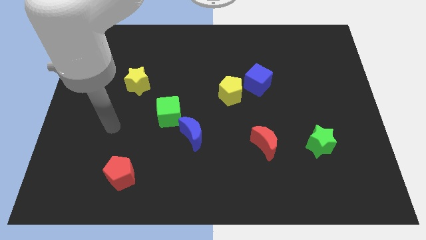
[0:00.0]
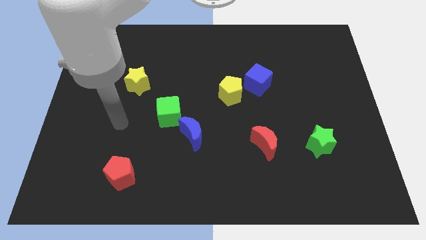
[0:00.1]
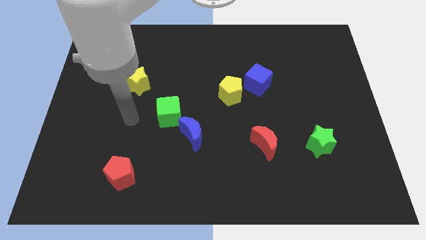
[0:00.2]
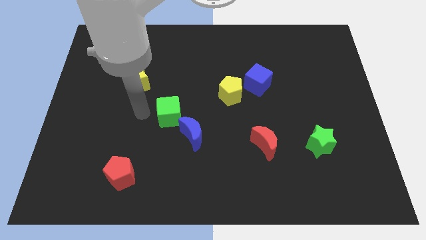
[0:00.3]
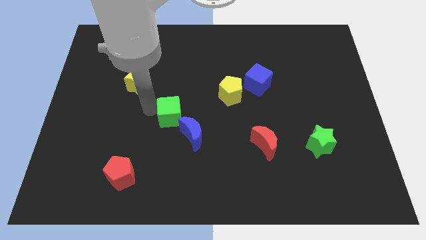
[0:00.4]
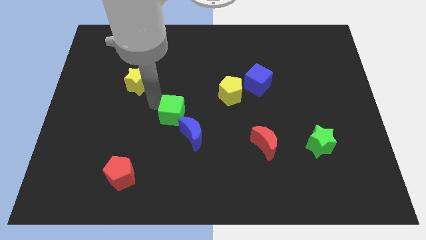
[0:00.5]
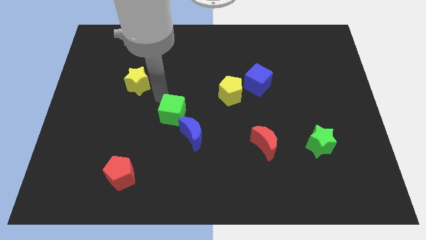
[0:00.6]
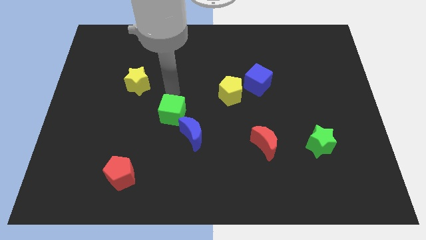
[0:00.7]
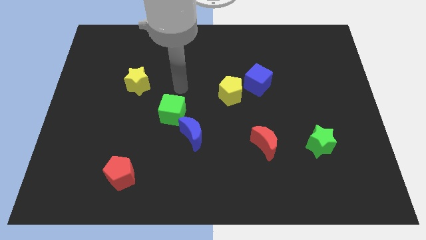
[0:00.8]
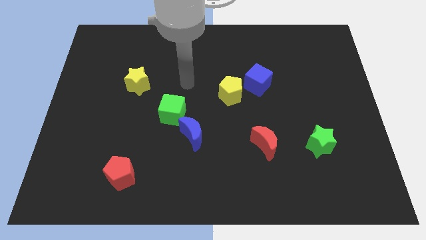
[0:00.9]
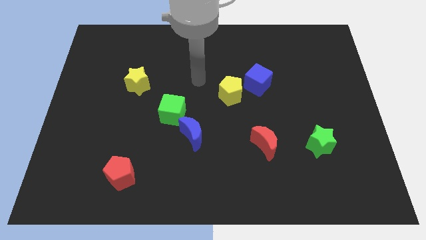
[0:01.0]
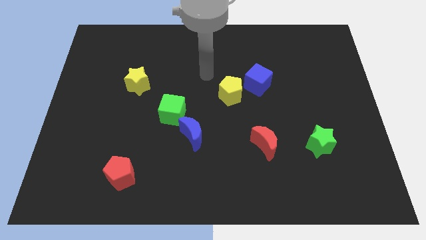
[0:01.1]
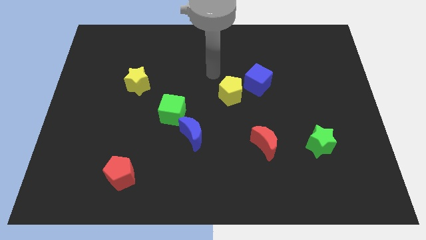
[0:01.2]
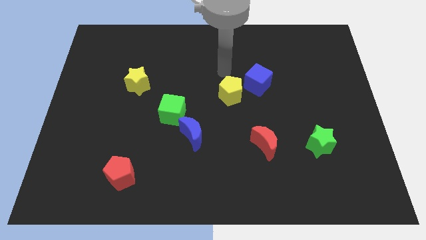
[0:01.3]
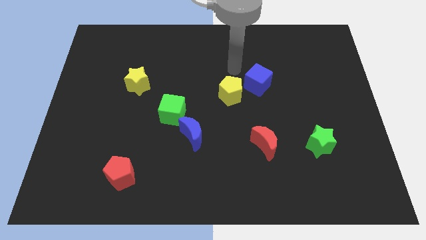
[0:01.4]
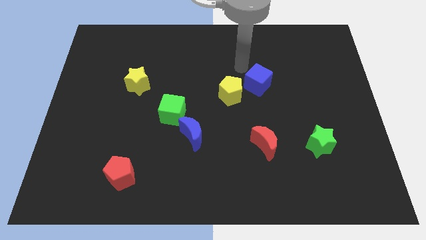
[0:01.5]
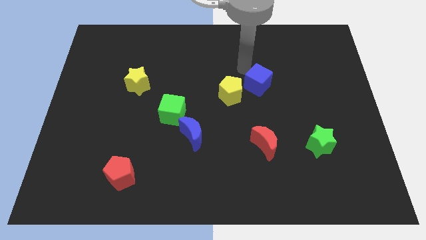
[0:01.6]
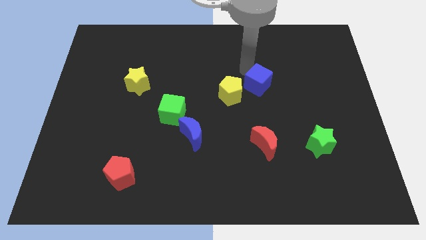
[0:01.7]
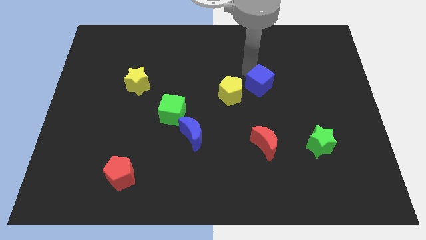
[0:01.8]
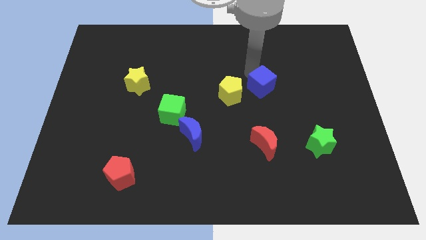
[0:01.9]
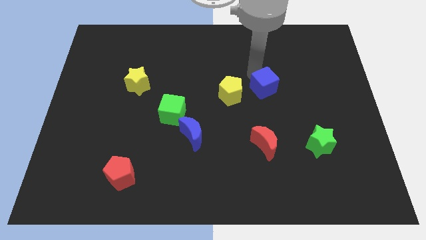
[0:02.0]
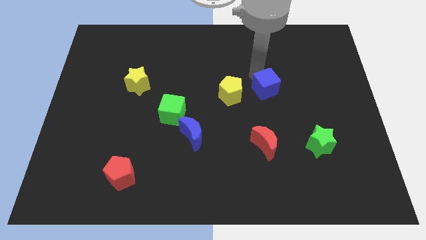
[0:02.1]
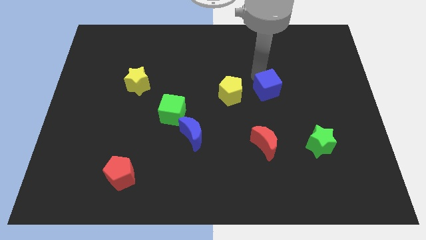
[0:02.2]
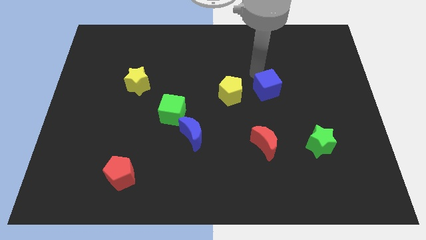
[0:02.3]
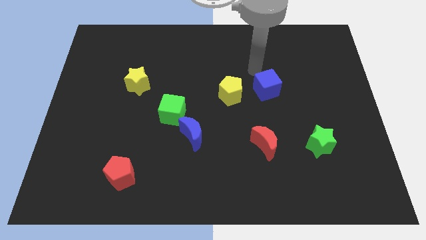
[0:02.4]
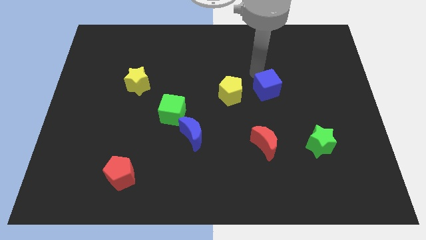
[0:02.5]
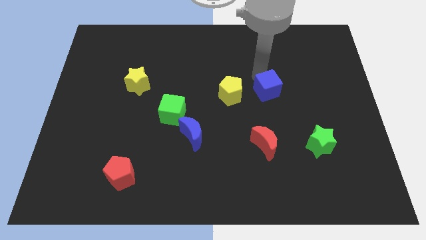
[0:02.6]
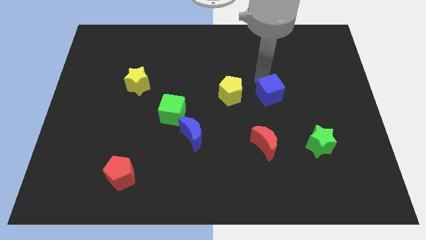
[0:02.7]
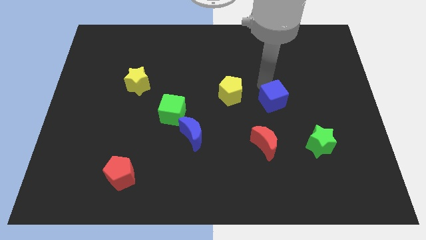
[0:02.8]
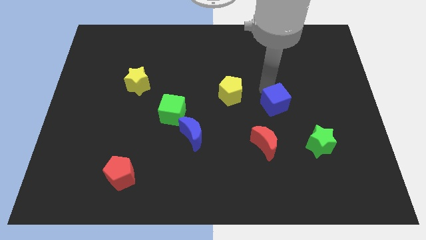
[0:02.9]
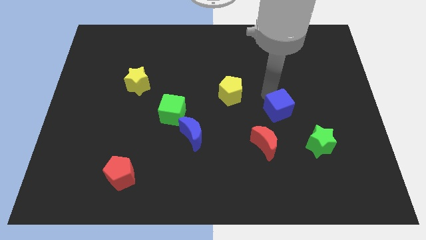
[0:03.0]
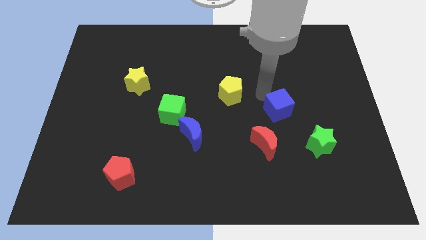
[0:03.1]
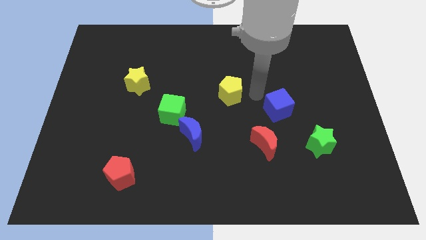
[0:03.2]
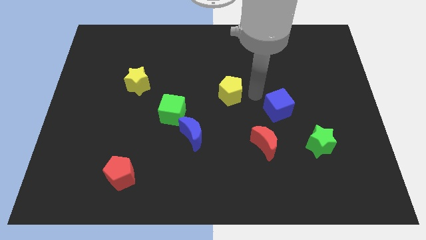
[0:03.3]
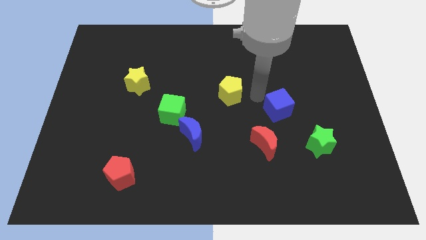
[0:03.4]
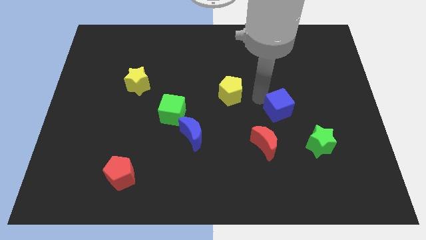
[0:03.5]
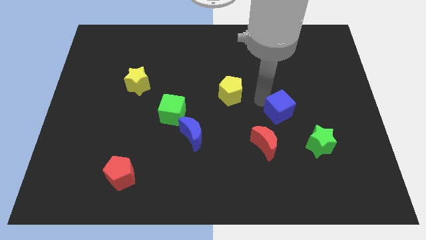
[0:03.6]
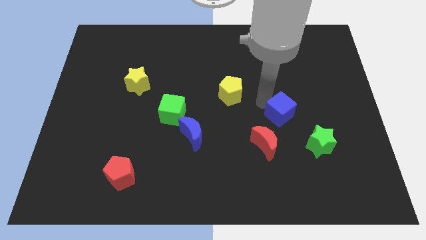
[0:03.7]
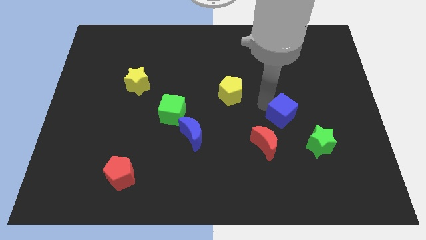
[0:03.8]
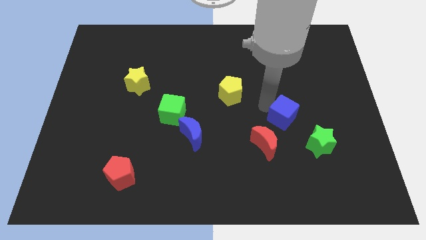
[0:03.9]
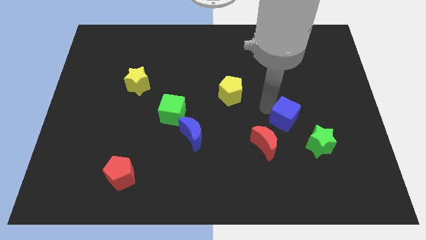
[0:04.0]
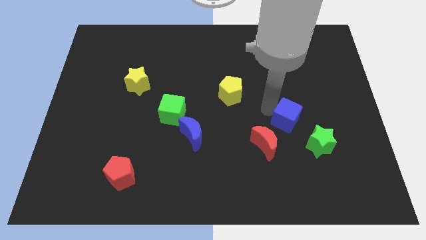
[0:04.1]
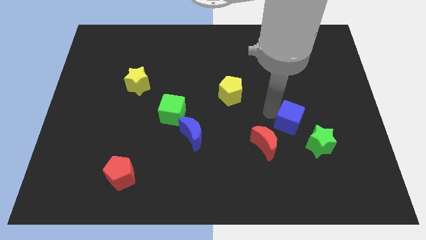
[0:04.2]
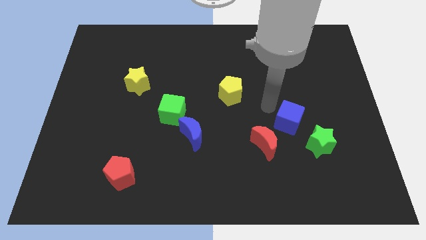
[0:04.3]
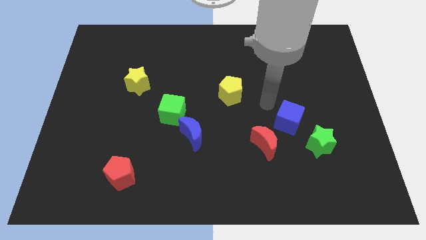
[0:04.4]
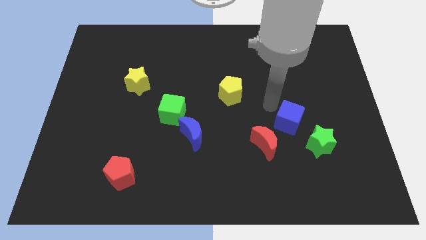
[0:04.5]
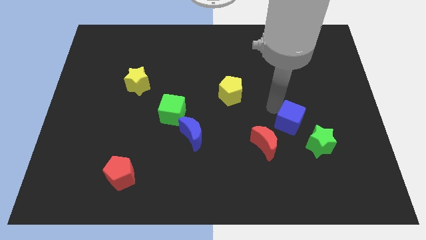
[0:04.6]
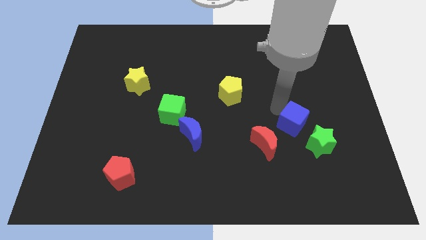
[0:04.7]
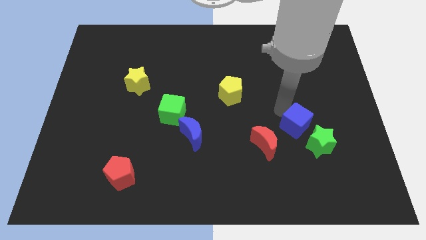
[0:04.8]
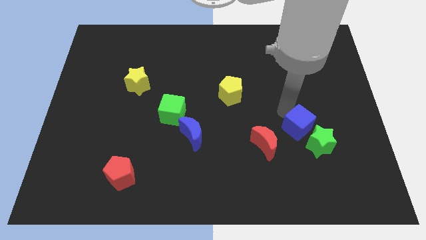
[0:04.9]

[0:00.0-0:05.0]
slide the blue cube close to the green star

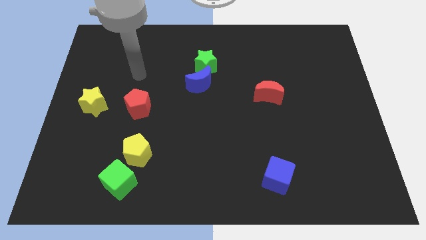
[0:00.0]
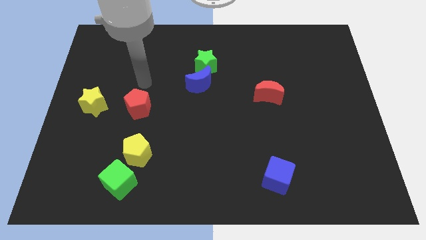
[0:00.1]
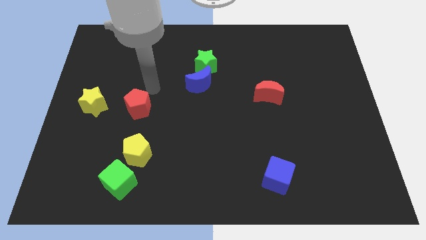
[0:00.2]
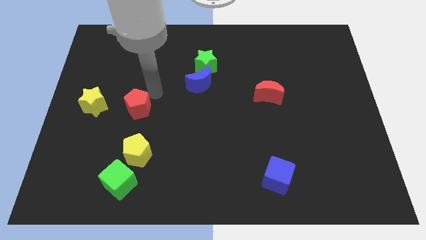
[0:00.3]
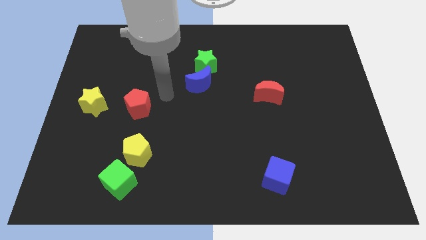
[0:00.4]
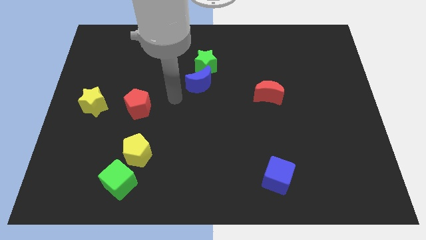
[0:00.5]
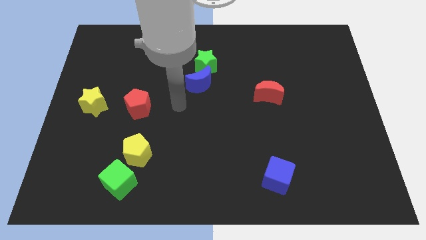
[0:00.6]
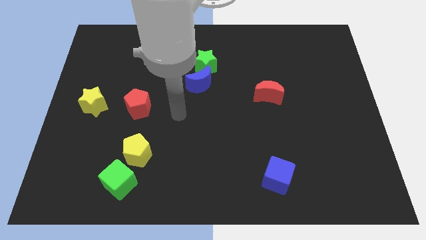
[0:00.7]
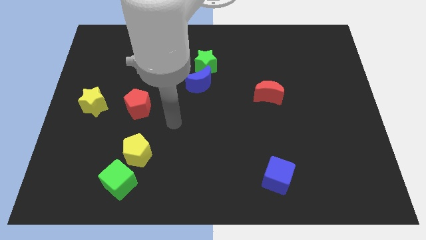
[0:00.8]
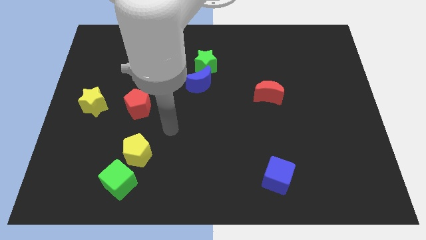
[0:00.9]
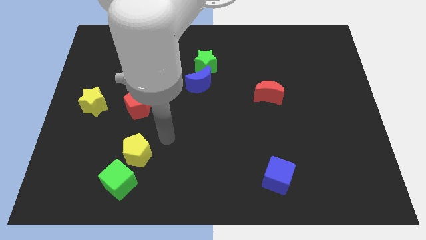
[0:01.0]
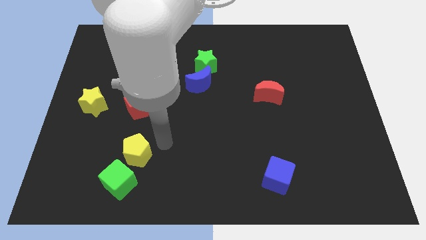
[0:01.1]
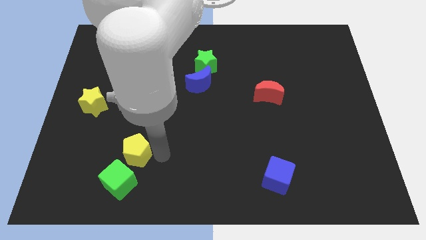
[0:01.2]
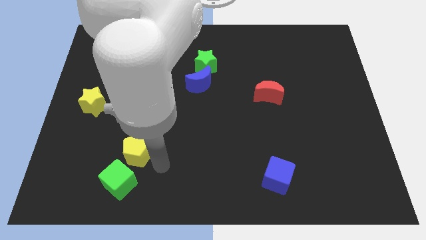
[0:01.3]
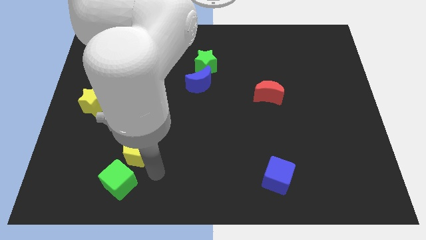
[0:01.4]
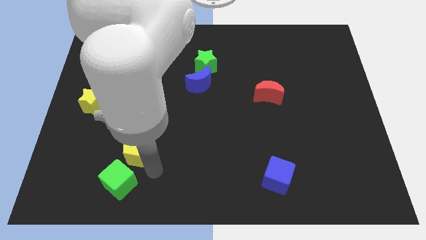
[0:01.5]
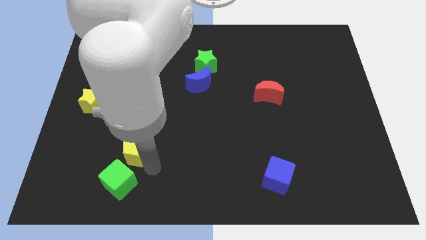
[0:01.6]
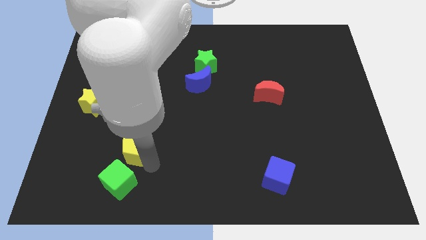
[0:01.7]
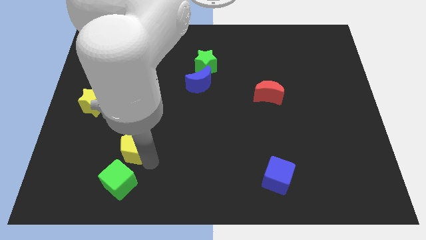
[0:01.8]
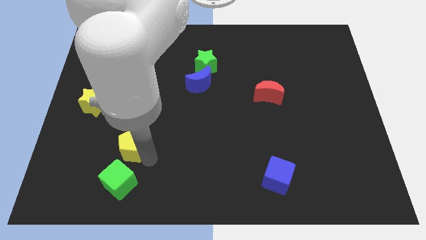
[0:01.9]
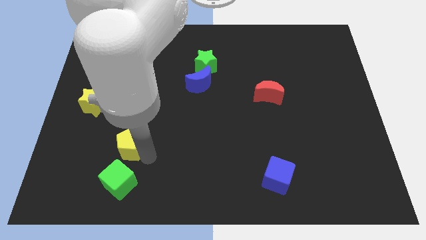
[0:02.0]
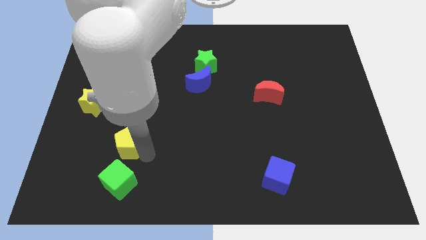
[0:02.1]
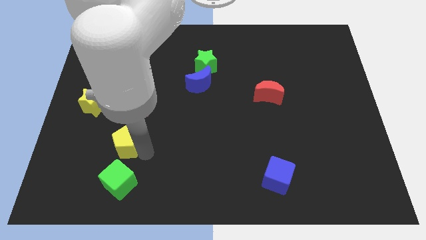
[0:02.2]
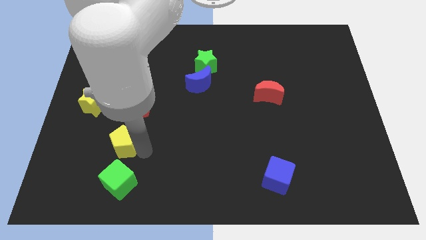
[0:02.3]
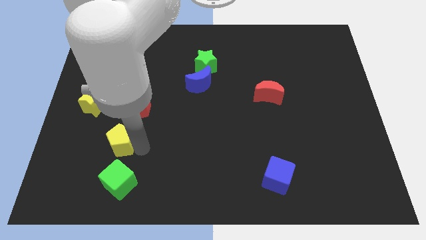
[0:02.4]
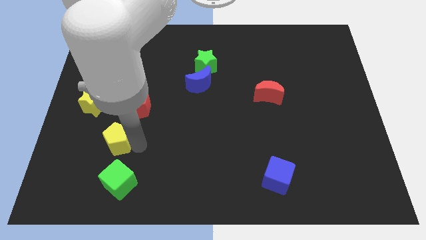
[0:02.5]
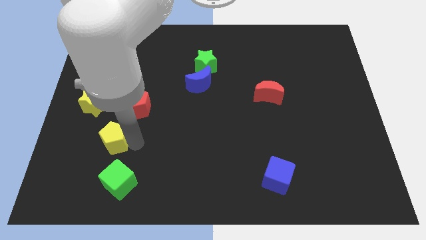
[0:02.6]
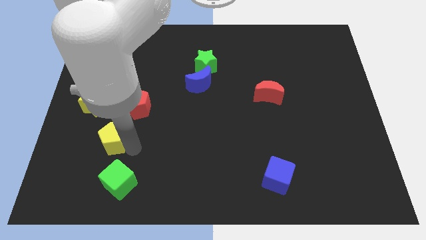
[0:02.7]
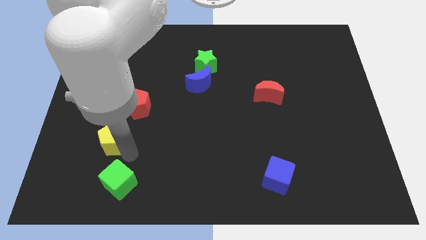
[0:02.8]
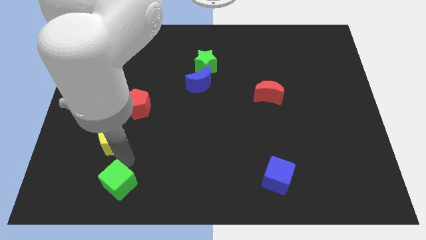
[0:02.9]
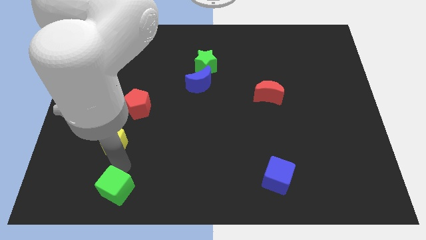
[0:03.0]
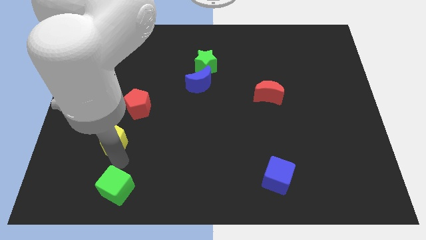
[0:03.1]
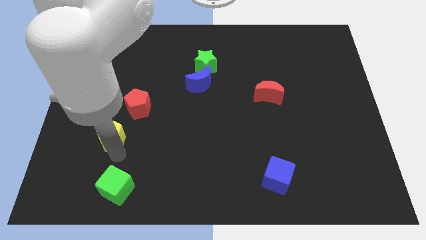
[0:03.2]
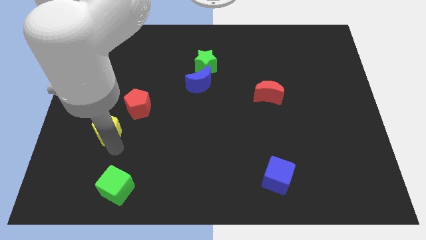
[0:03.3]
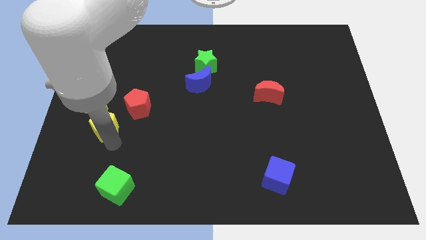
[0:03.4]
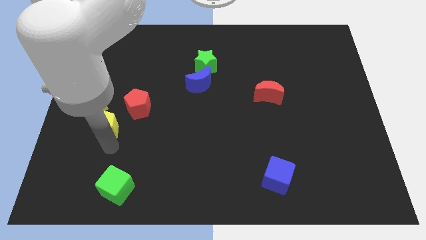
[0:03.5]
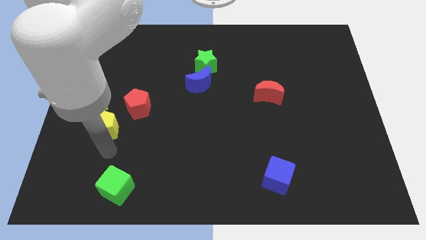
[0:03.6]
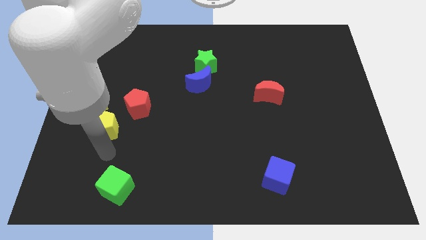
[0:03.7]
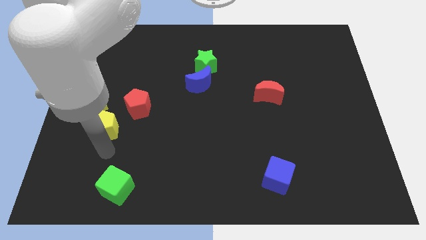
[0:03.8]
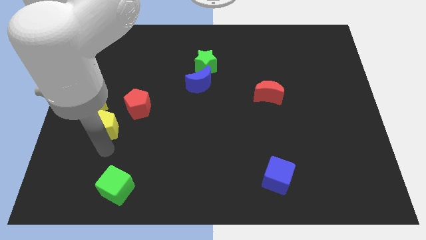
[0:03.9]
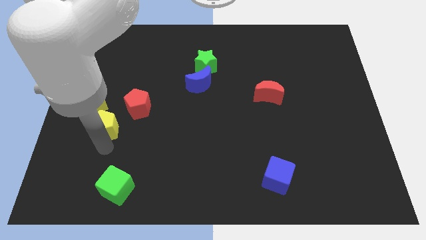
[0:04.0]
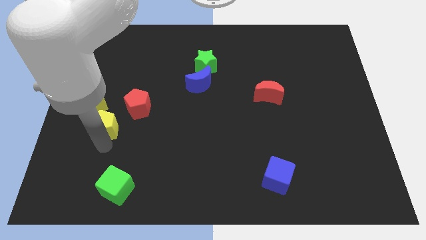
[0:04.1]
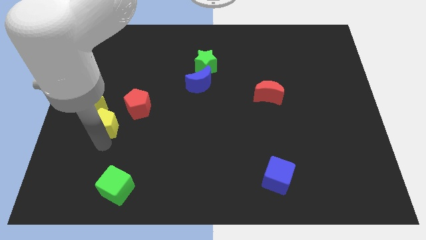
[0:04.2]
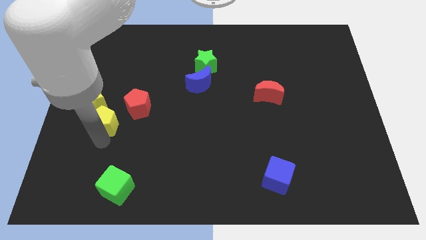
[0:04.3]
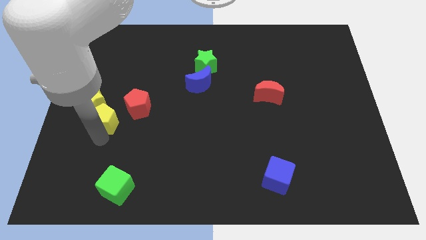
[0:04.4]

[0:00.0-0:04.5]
push the yellow pentagon towards the yellow star
